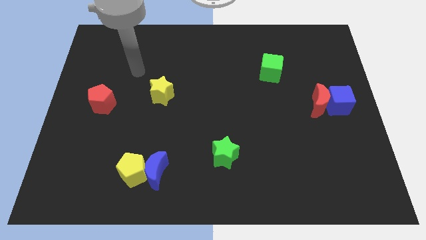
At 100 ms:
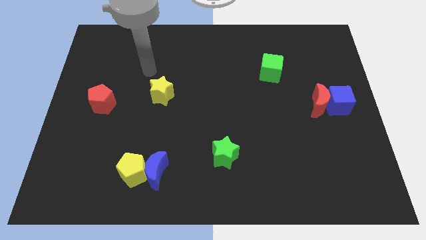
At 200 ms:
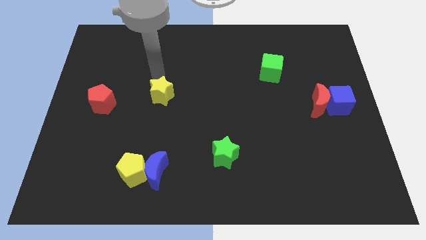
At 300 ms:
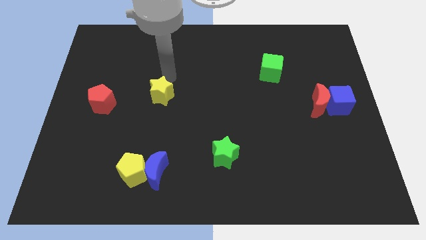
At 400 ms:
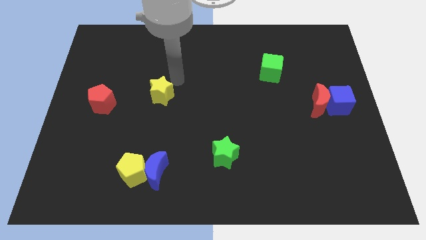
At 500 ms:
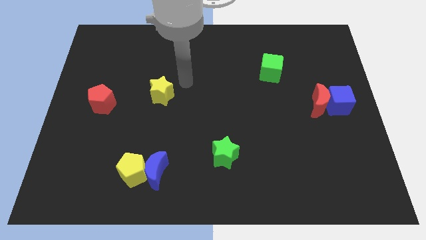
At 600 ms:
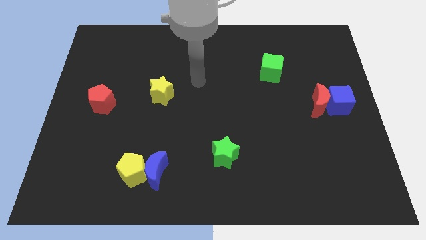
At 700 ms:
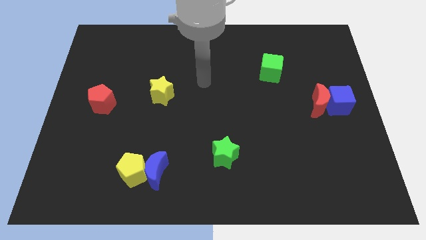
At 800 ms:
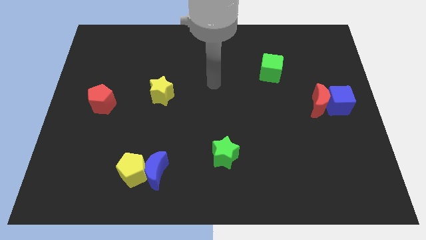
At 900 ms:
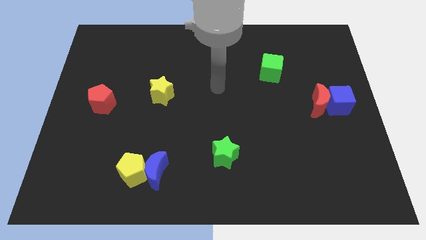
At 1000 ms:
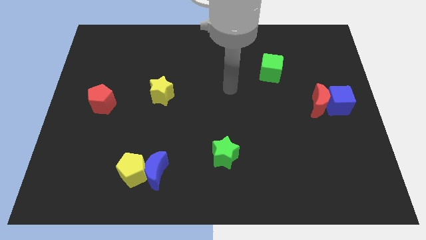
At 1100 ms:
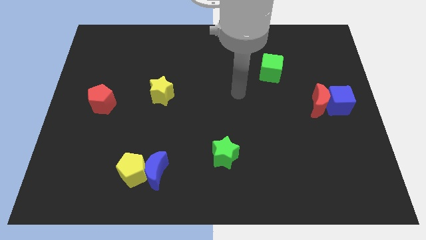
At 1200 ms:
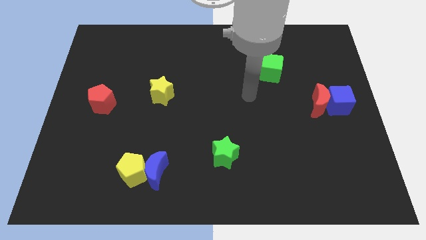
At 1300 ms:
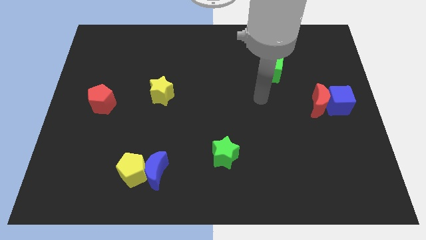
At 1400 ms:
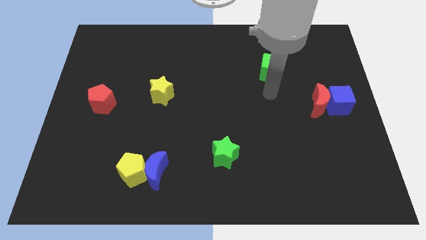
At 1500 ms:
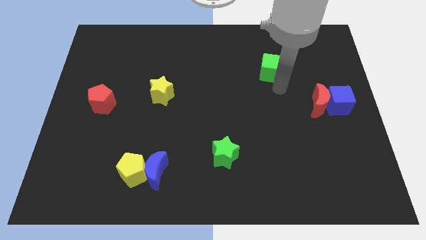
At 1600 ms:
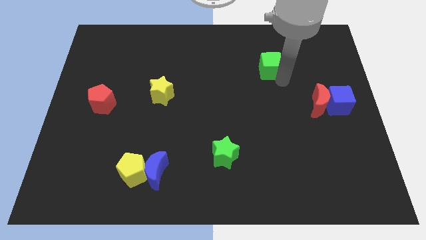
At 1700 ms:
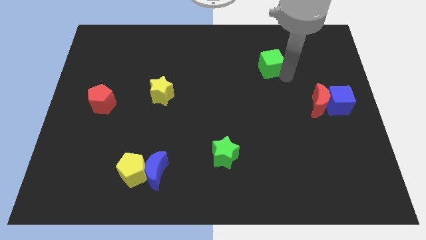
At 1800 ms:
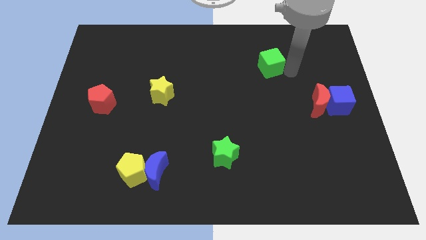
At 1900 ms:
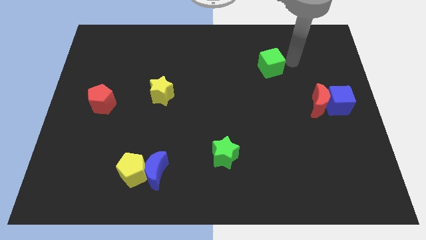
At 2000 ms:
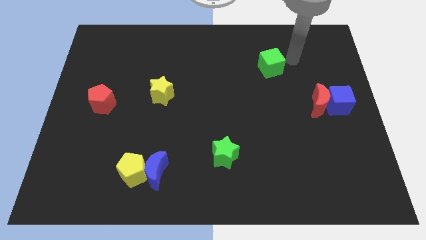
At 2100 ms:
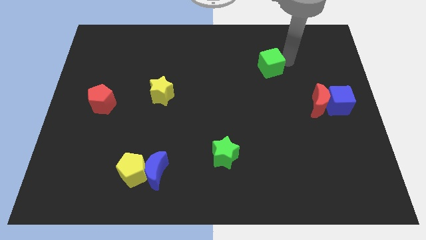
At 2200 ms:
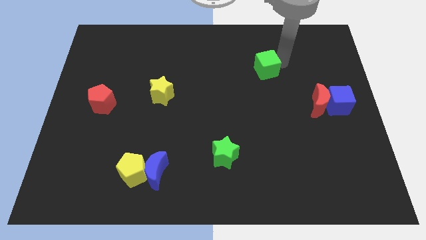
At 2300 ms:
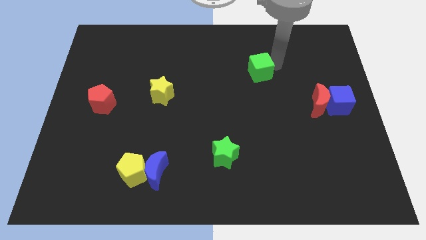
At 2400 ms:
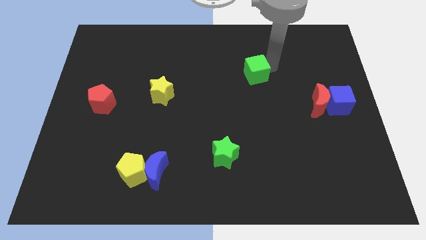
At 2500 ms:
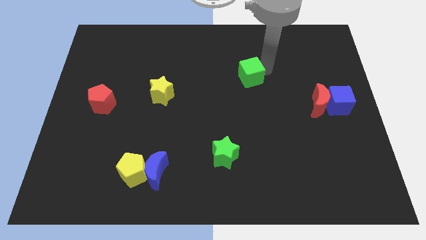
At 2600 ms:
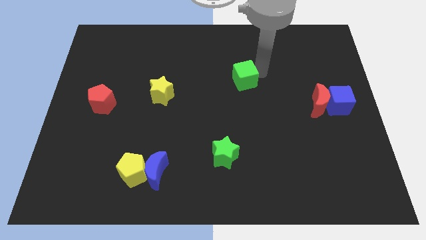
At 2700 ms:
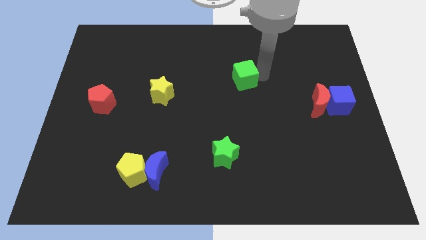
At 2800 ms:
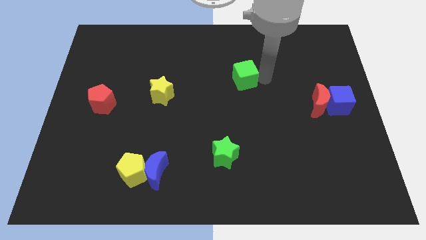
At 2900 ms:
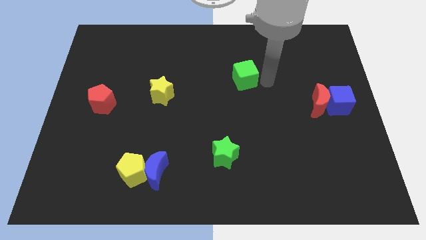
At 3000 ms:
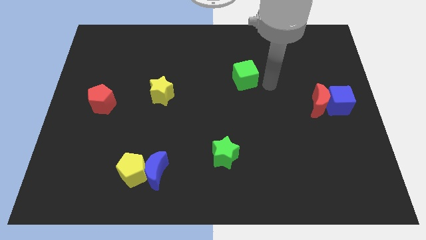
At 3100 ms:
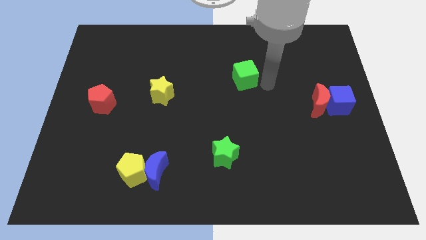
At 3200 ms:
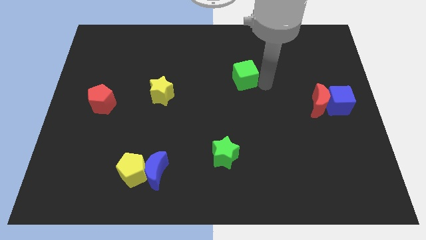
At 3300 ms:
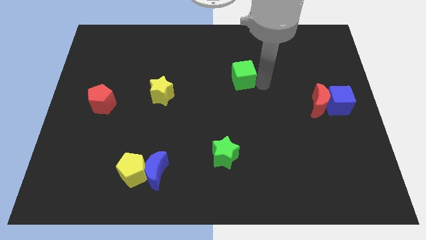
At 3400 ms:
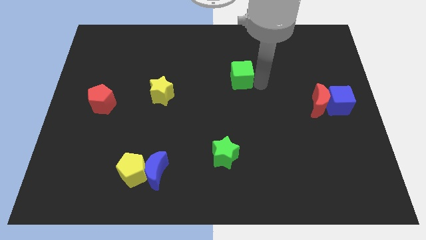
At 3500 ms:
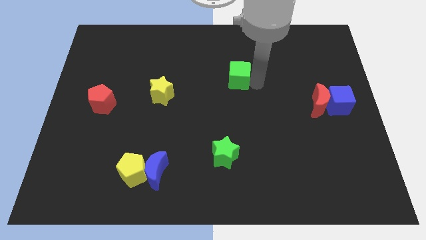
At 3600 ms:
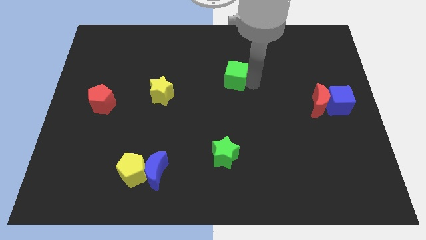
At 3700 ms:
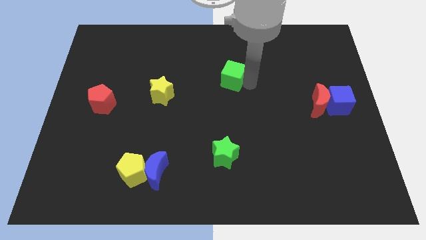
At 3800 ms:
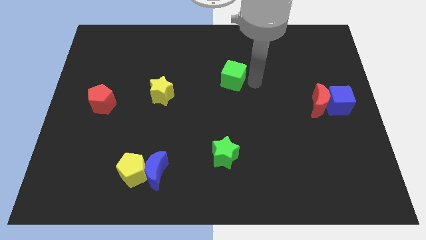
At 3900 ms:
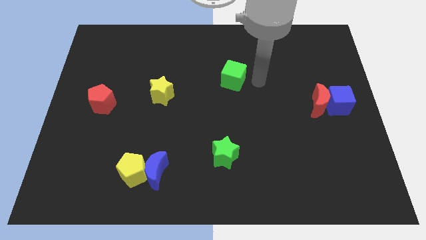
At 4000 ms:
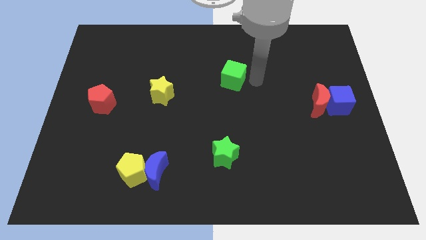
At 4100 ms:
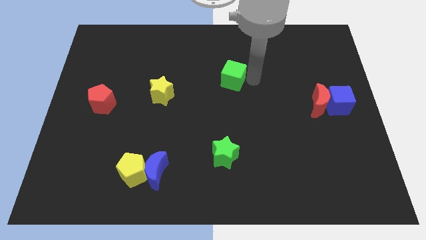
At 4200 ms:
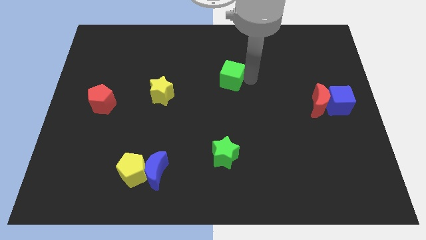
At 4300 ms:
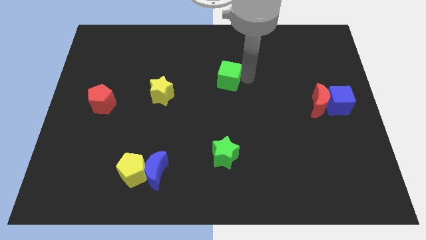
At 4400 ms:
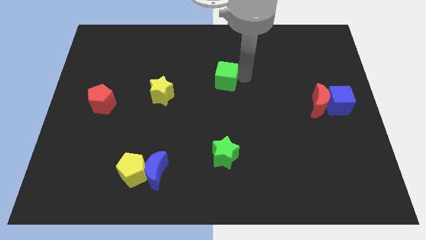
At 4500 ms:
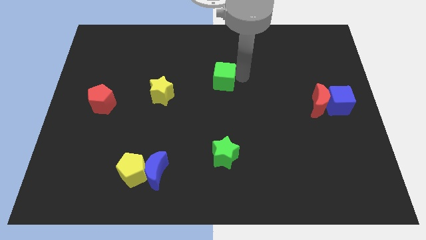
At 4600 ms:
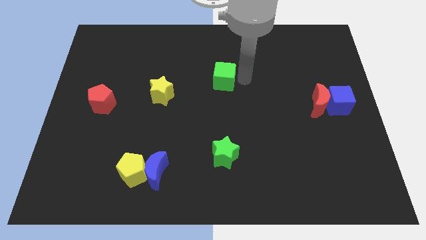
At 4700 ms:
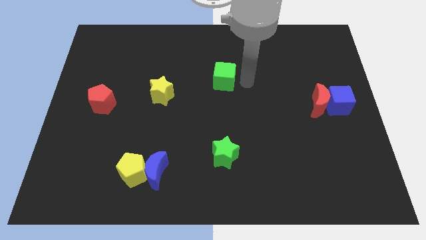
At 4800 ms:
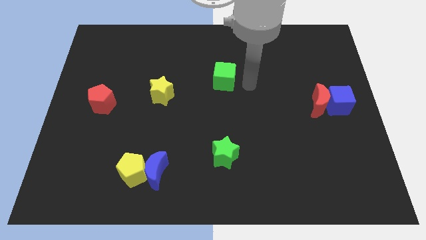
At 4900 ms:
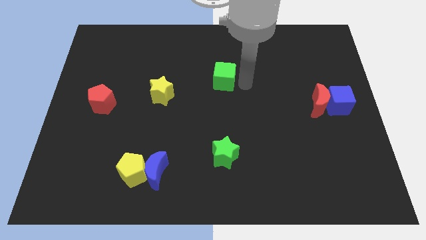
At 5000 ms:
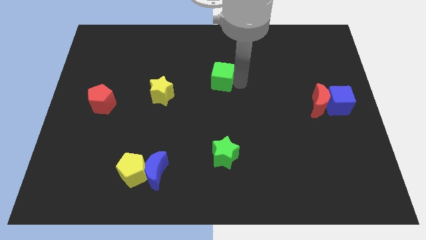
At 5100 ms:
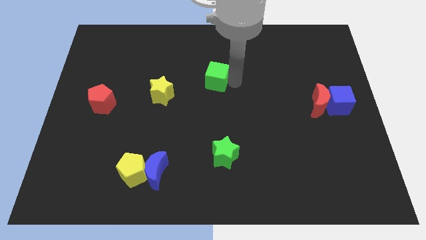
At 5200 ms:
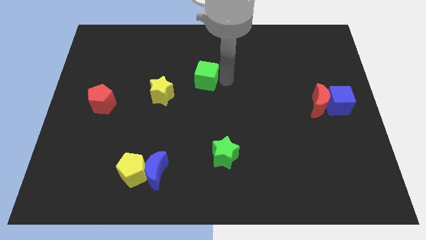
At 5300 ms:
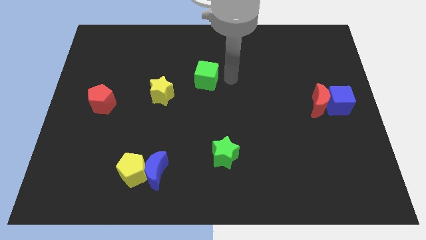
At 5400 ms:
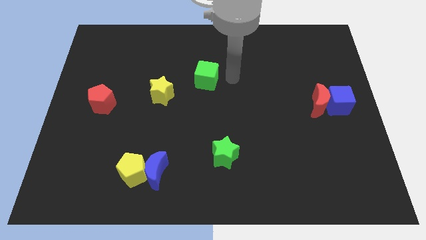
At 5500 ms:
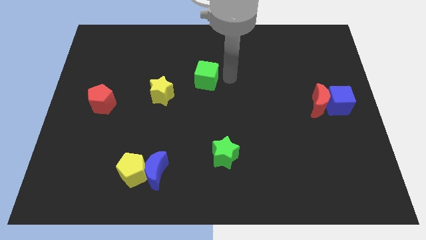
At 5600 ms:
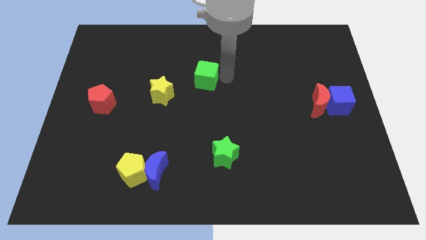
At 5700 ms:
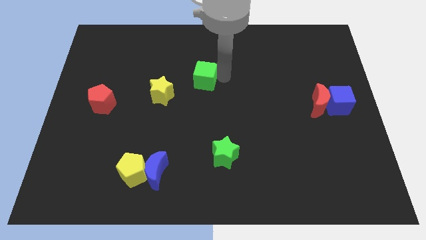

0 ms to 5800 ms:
push the green cube diagonally up and to the right of the yellow star

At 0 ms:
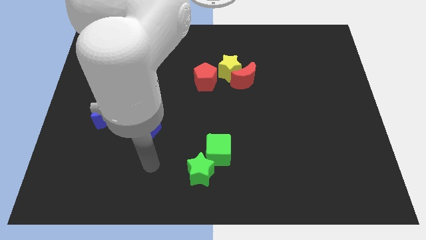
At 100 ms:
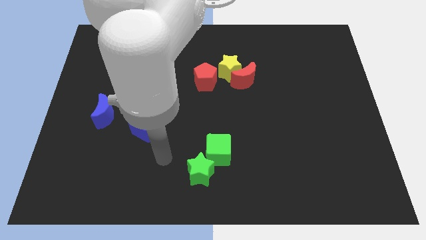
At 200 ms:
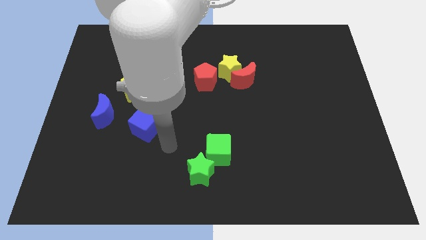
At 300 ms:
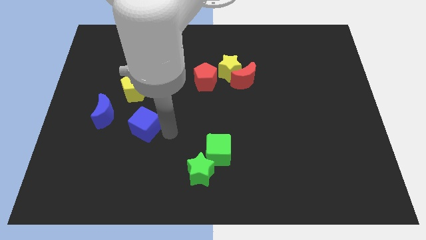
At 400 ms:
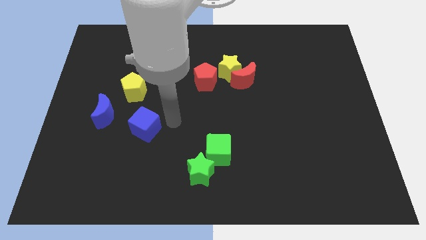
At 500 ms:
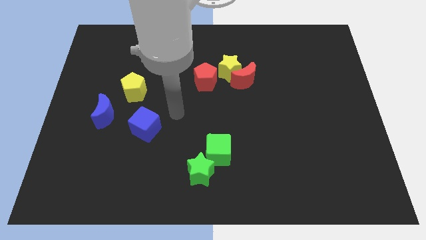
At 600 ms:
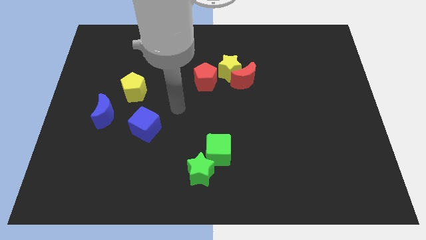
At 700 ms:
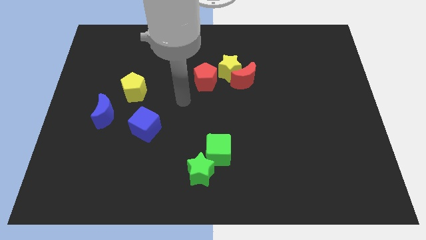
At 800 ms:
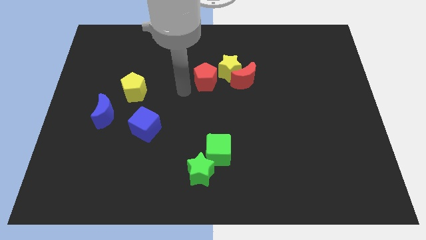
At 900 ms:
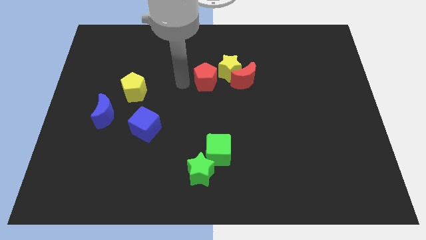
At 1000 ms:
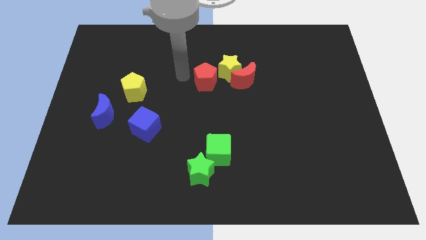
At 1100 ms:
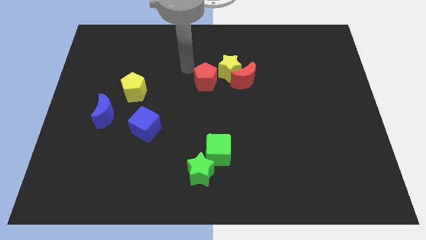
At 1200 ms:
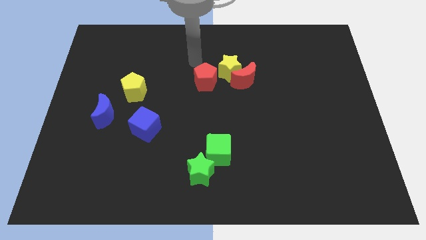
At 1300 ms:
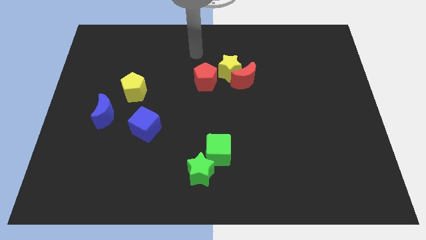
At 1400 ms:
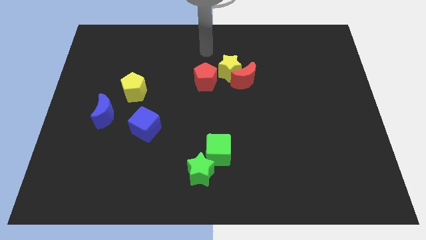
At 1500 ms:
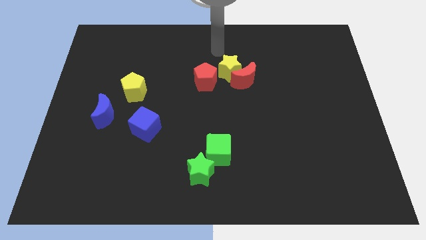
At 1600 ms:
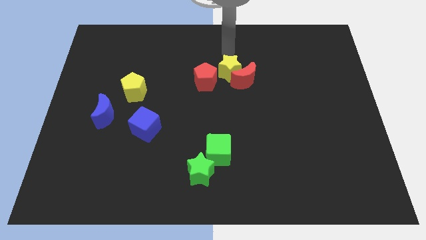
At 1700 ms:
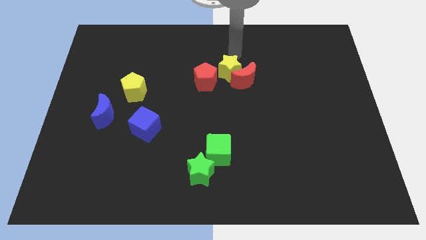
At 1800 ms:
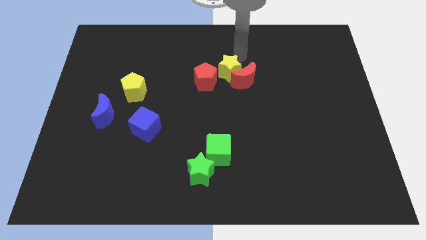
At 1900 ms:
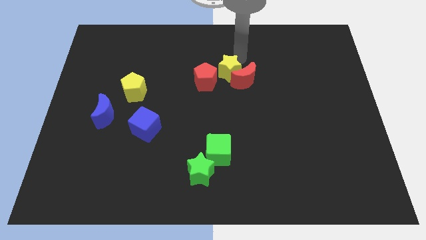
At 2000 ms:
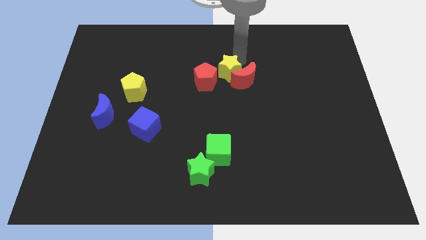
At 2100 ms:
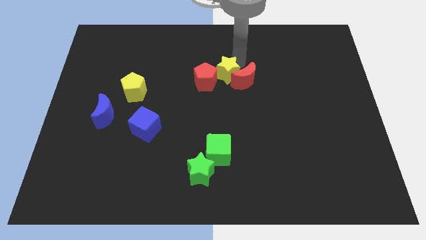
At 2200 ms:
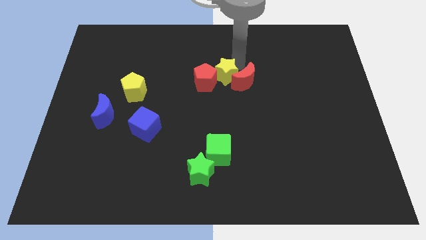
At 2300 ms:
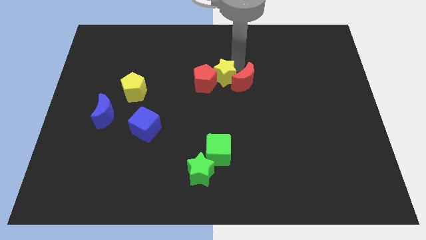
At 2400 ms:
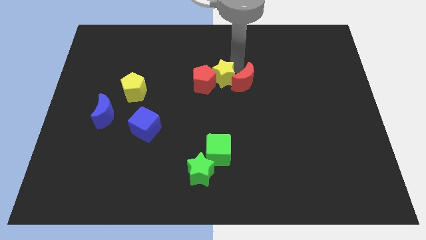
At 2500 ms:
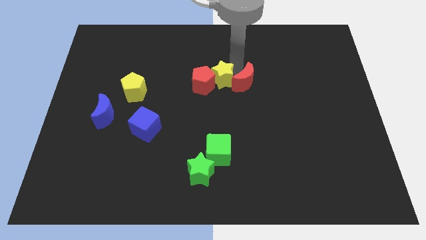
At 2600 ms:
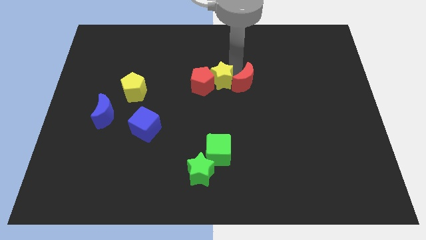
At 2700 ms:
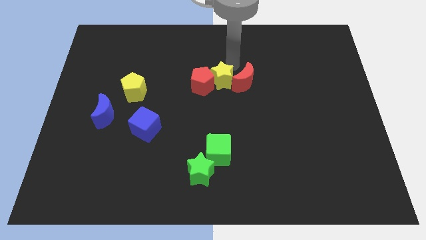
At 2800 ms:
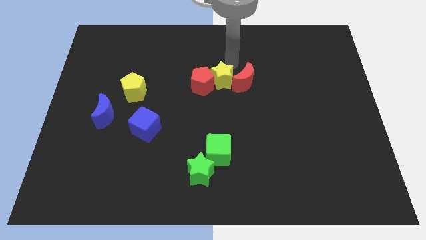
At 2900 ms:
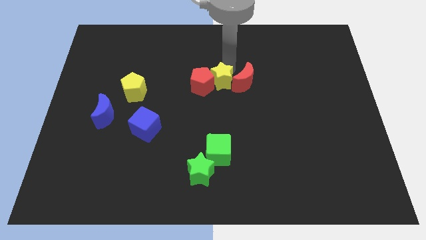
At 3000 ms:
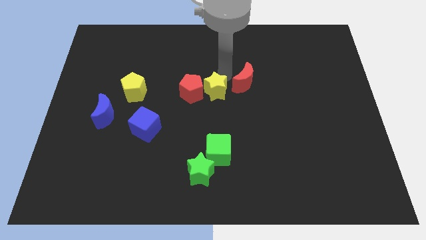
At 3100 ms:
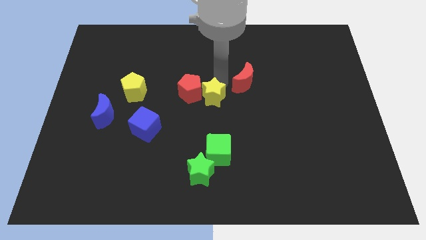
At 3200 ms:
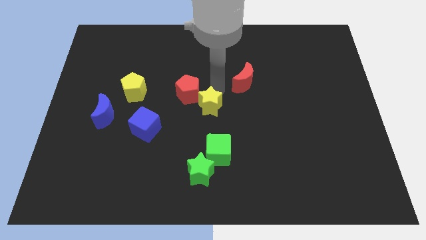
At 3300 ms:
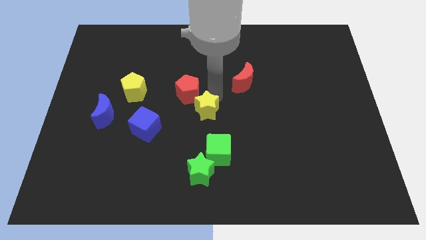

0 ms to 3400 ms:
push the yellow star to the bottom side of the red pentagon
